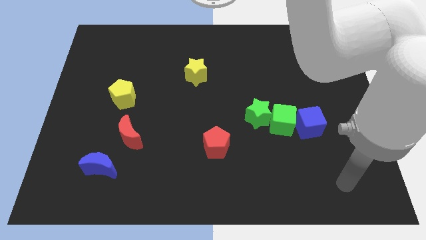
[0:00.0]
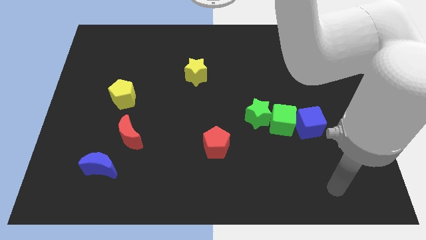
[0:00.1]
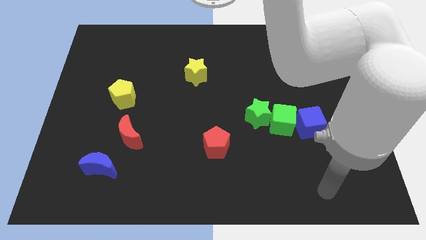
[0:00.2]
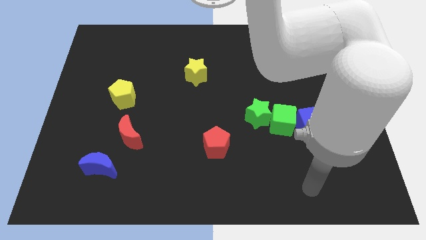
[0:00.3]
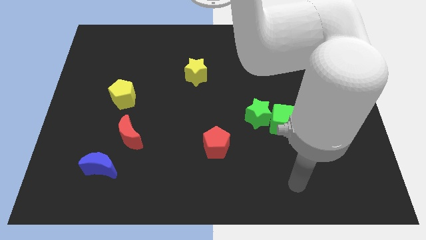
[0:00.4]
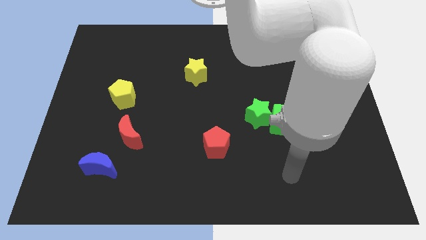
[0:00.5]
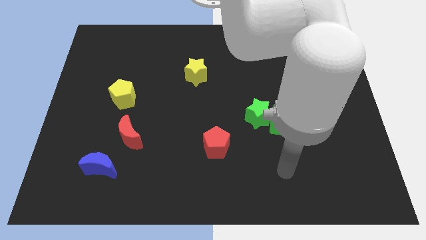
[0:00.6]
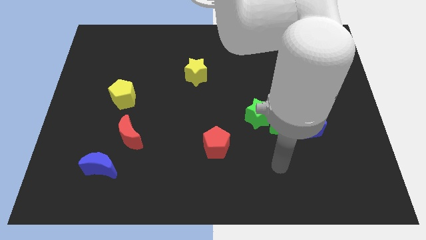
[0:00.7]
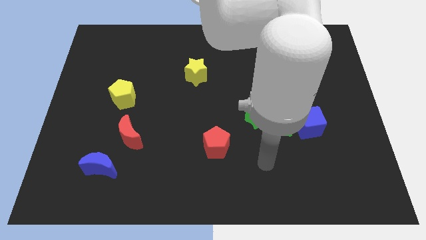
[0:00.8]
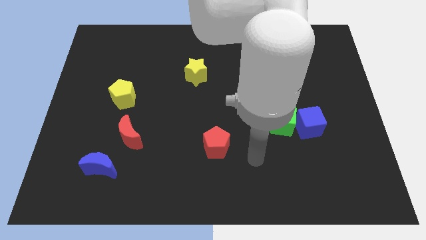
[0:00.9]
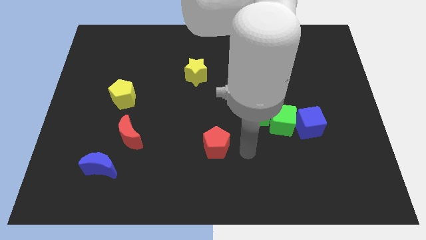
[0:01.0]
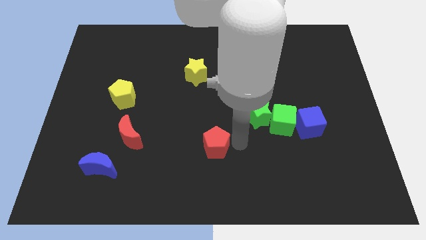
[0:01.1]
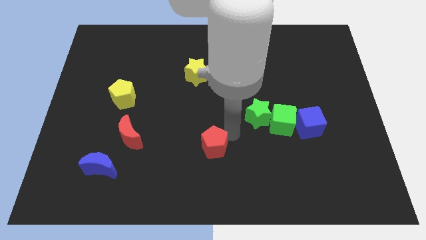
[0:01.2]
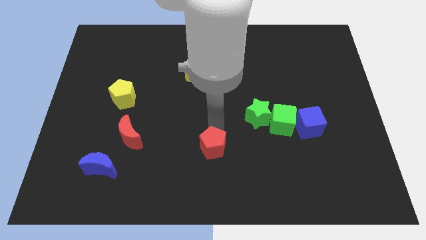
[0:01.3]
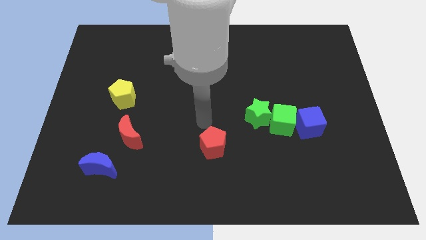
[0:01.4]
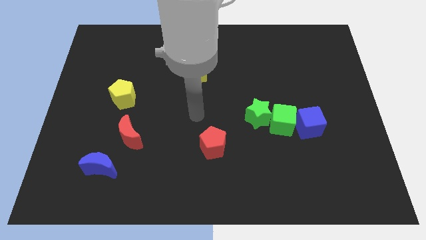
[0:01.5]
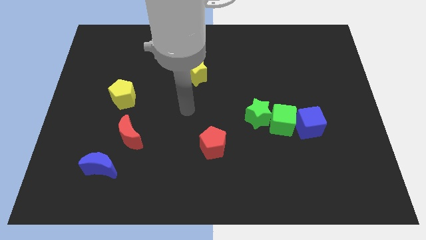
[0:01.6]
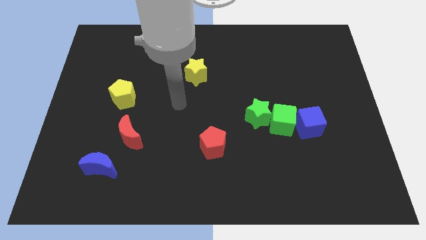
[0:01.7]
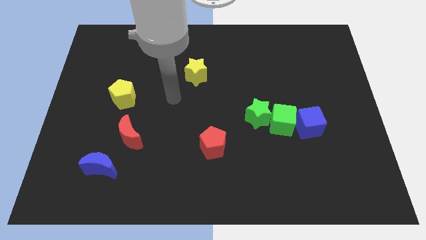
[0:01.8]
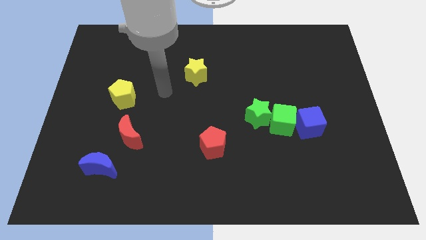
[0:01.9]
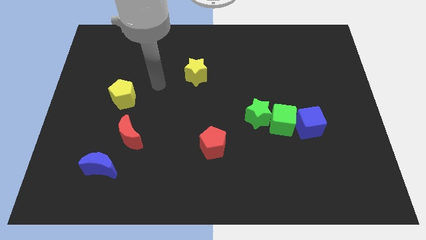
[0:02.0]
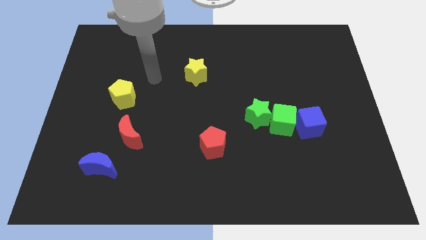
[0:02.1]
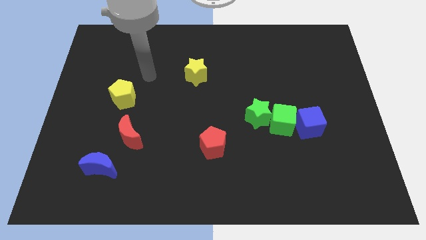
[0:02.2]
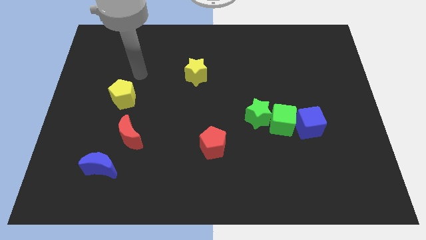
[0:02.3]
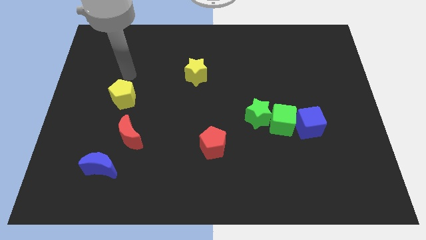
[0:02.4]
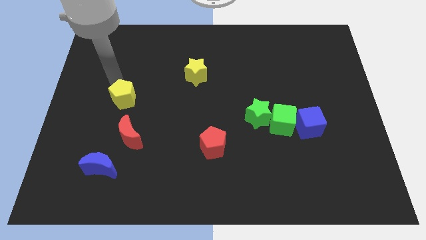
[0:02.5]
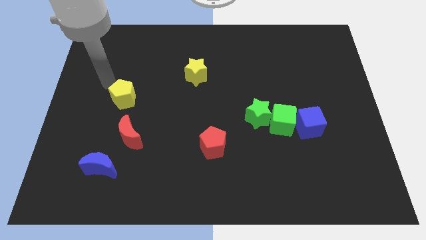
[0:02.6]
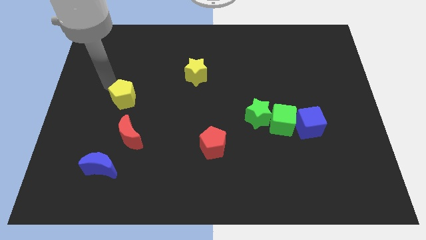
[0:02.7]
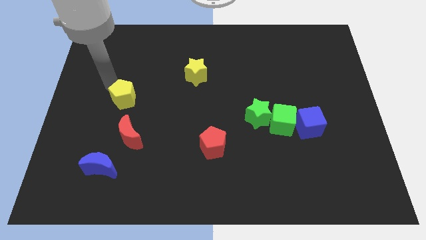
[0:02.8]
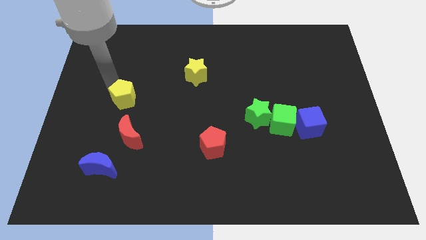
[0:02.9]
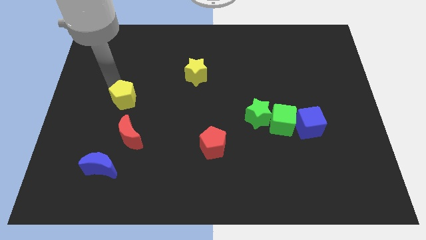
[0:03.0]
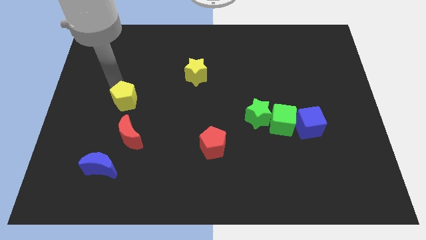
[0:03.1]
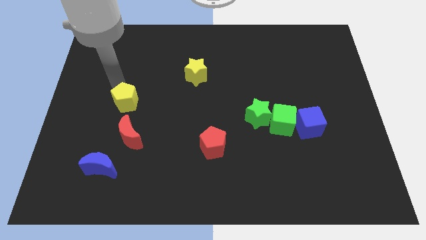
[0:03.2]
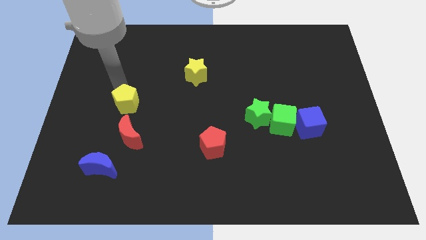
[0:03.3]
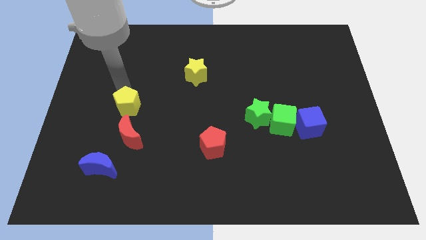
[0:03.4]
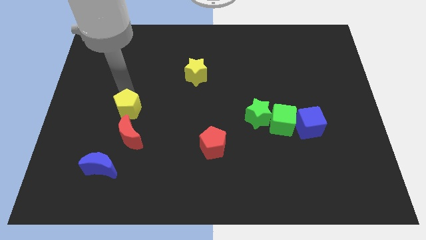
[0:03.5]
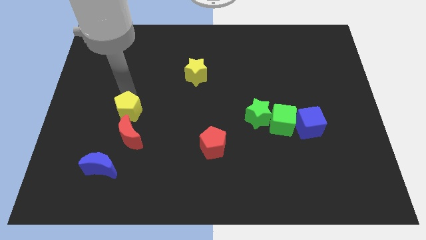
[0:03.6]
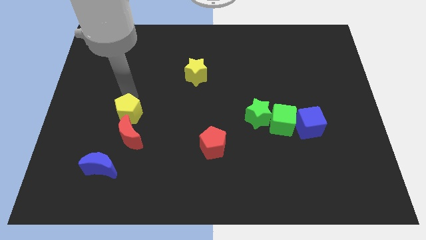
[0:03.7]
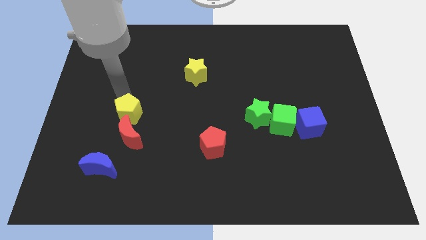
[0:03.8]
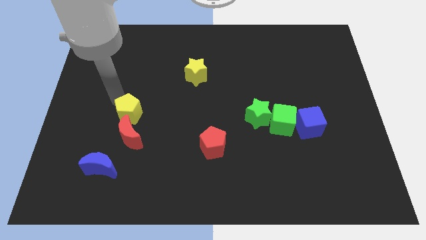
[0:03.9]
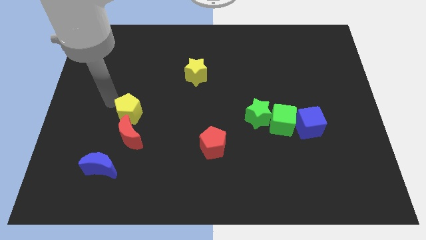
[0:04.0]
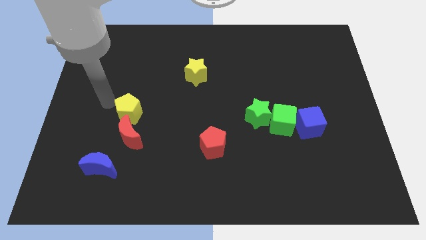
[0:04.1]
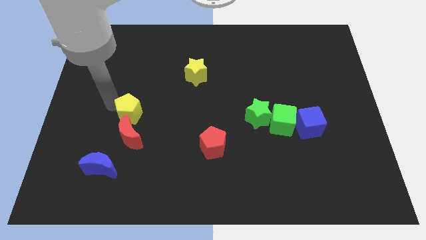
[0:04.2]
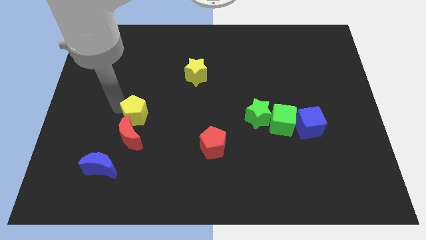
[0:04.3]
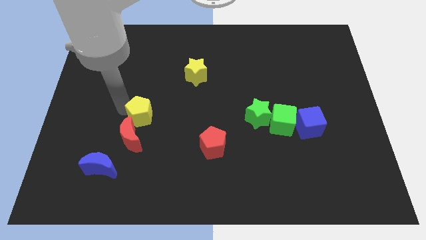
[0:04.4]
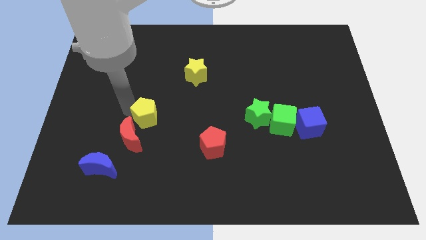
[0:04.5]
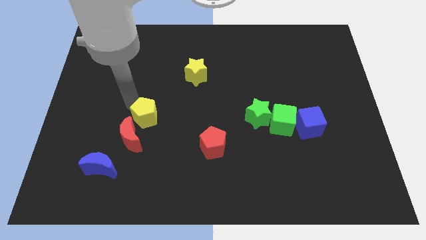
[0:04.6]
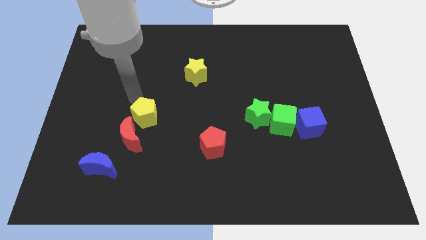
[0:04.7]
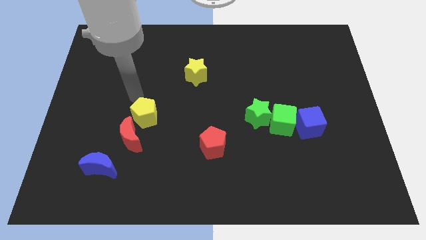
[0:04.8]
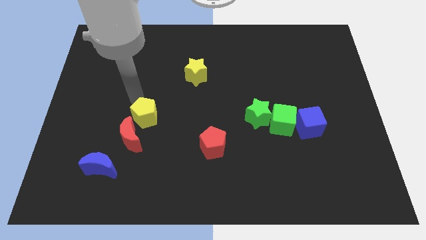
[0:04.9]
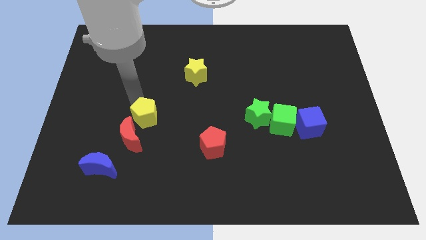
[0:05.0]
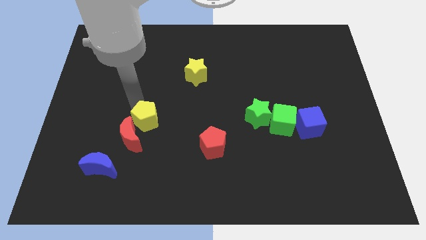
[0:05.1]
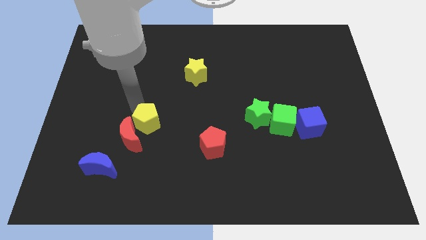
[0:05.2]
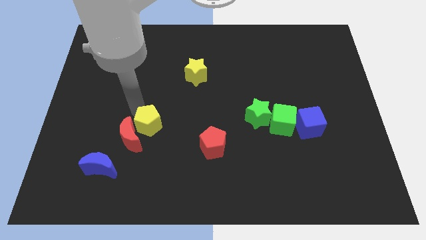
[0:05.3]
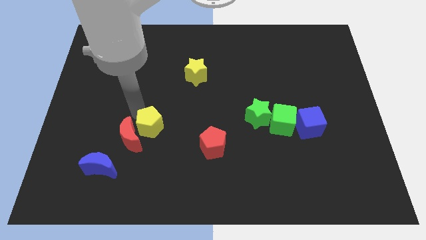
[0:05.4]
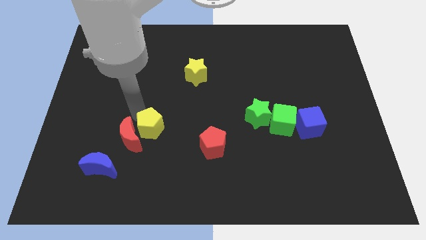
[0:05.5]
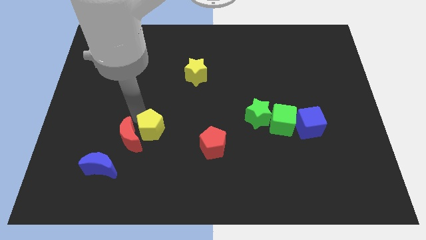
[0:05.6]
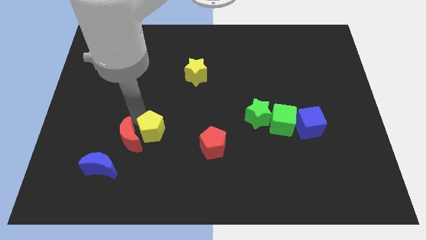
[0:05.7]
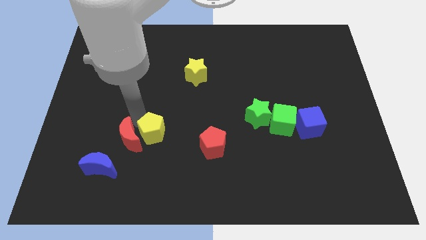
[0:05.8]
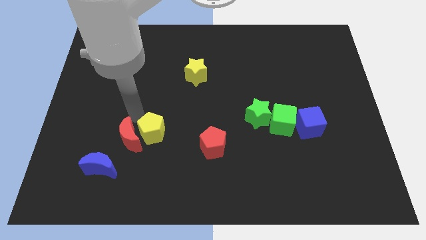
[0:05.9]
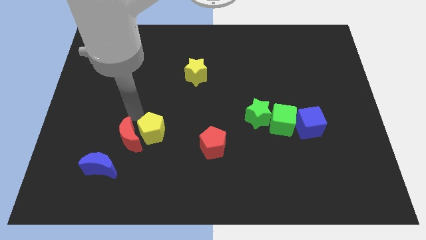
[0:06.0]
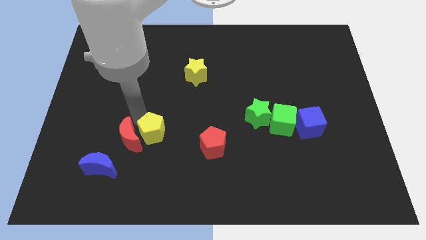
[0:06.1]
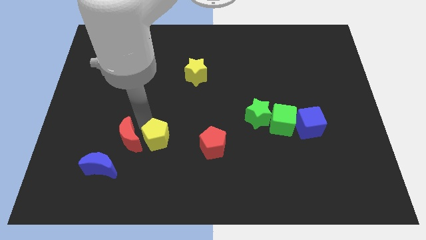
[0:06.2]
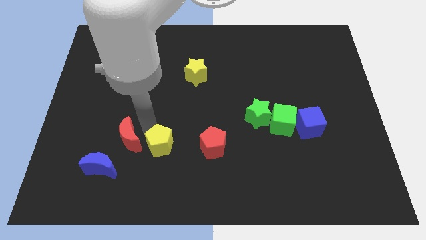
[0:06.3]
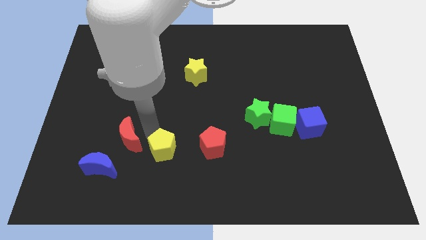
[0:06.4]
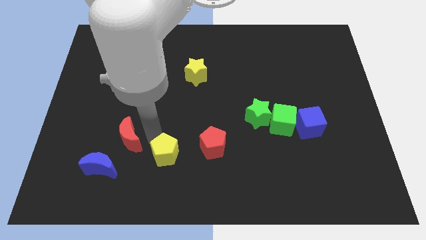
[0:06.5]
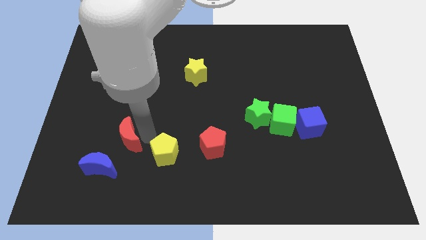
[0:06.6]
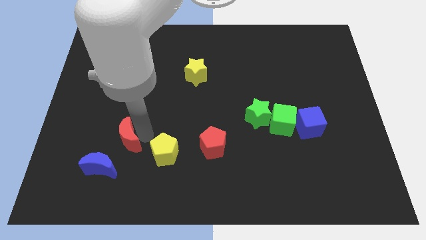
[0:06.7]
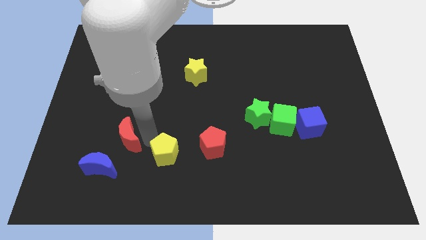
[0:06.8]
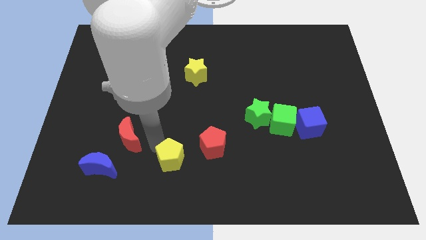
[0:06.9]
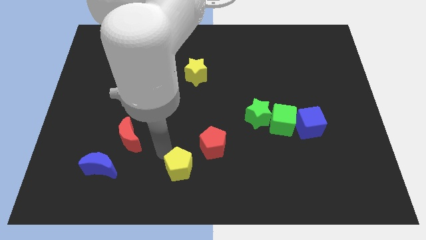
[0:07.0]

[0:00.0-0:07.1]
put the yellow pentagon to the bottom
